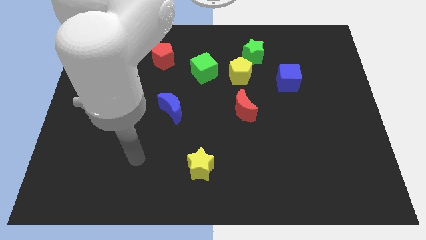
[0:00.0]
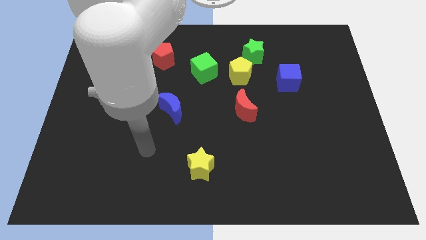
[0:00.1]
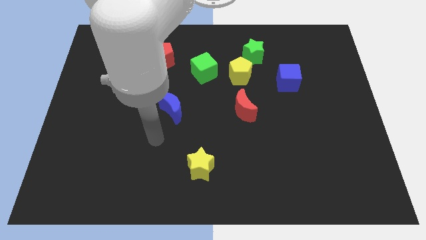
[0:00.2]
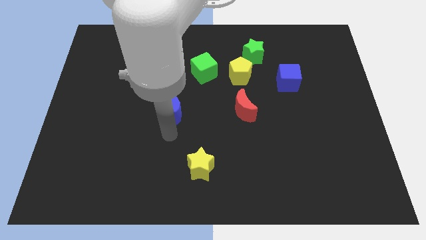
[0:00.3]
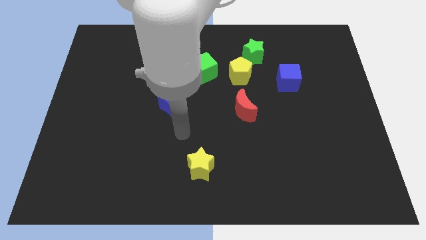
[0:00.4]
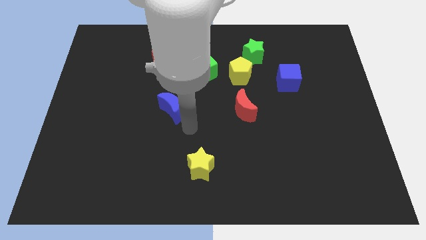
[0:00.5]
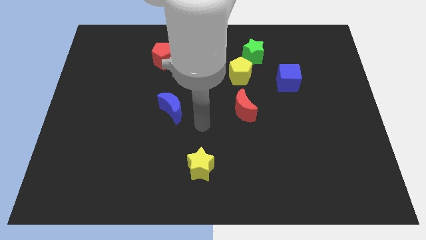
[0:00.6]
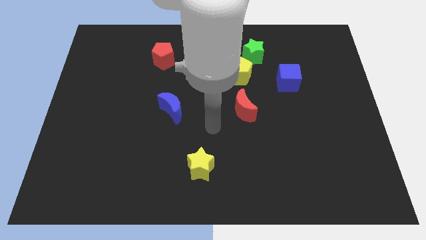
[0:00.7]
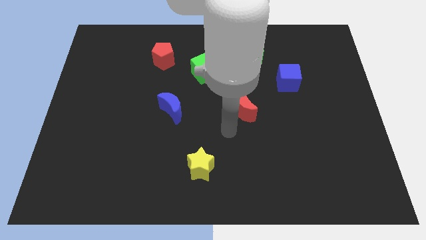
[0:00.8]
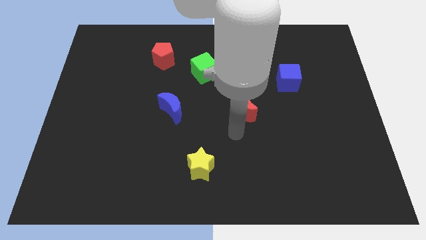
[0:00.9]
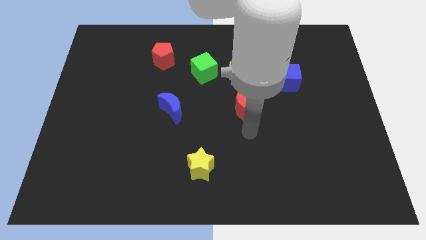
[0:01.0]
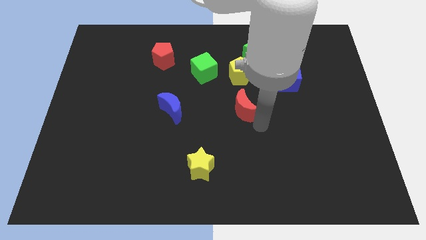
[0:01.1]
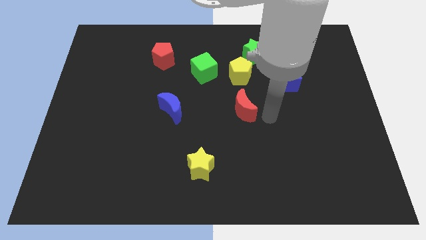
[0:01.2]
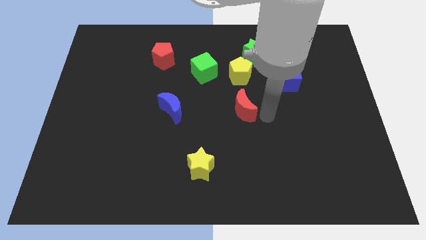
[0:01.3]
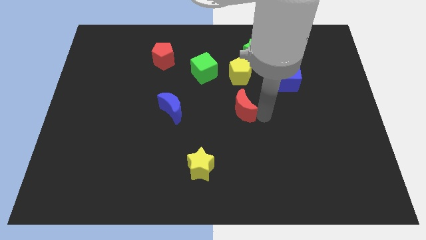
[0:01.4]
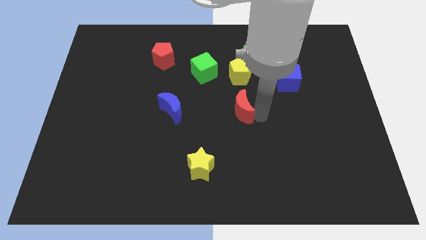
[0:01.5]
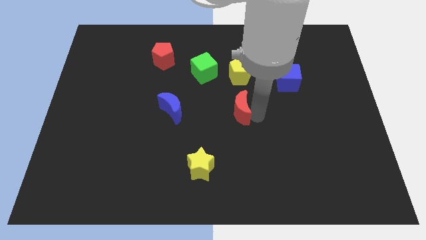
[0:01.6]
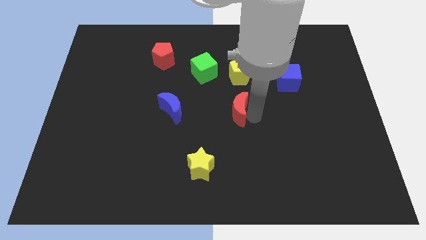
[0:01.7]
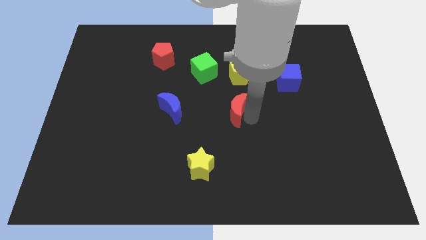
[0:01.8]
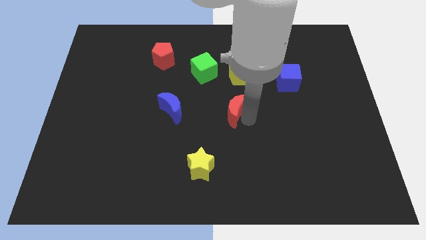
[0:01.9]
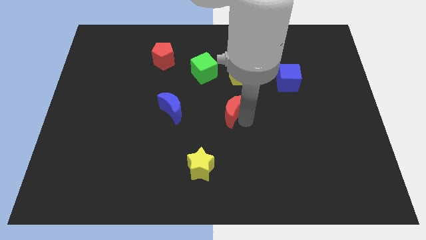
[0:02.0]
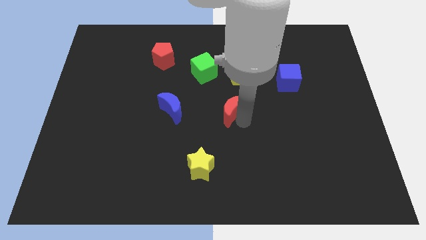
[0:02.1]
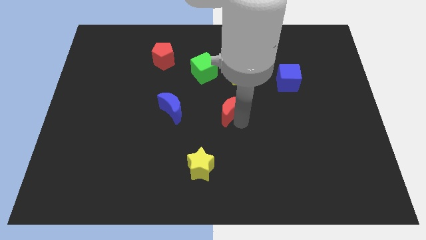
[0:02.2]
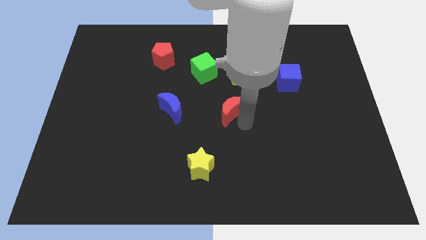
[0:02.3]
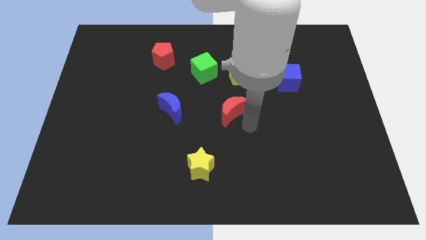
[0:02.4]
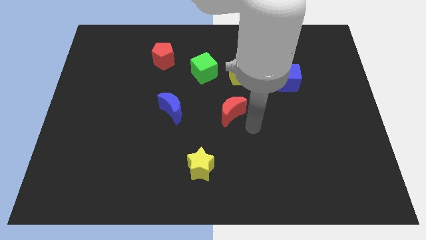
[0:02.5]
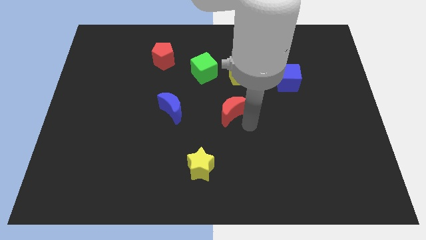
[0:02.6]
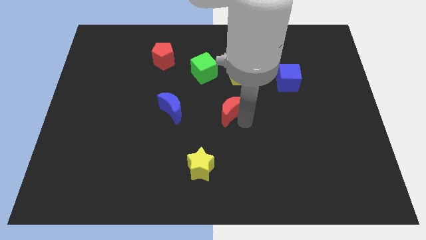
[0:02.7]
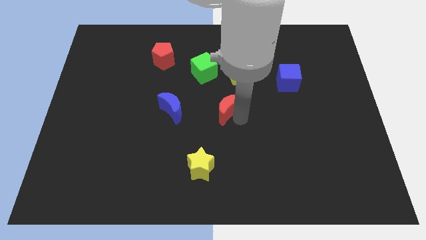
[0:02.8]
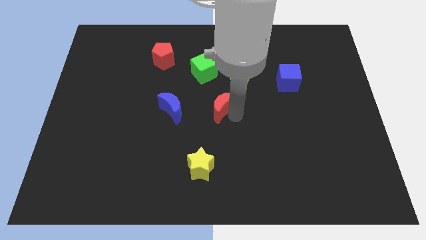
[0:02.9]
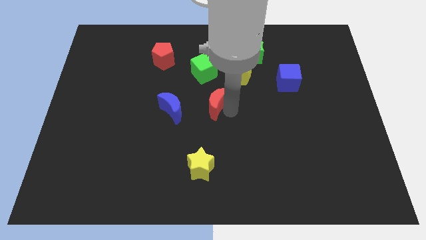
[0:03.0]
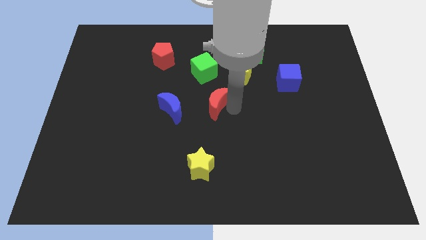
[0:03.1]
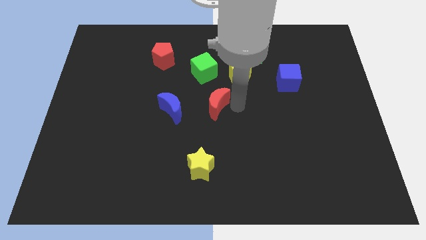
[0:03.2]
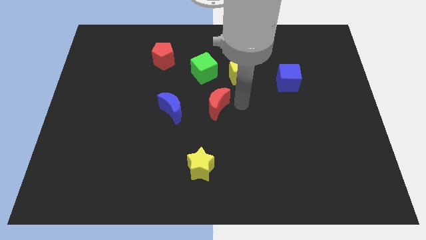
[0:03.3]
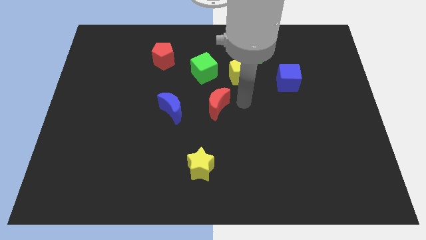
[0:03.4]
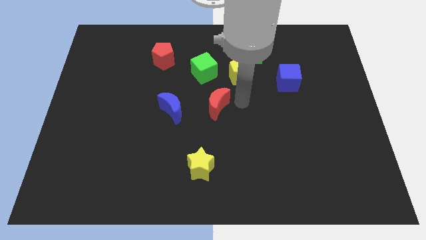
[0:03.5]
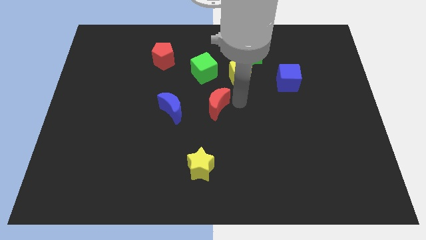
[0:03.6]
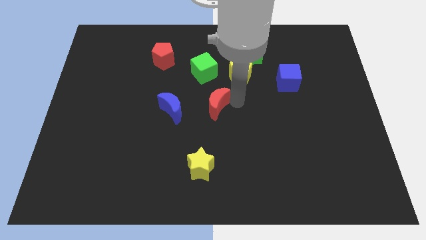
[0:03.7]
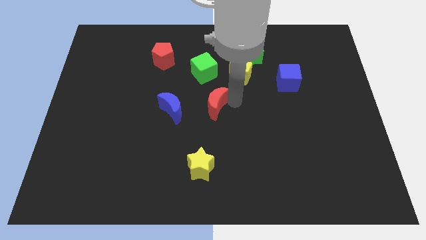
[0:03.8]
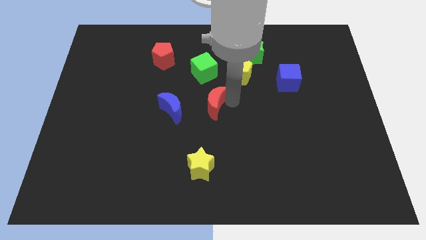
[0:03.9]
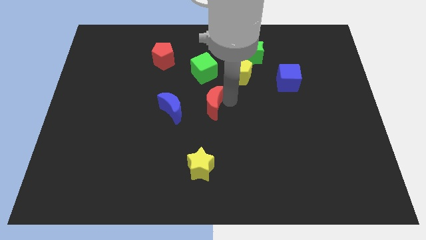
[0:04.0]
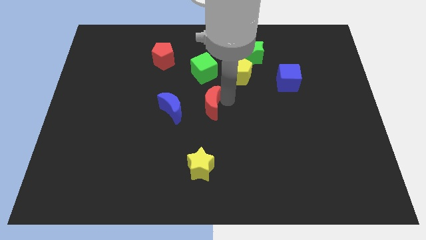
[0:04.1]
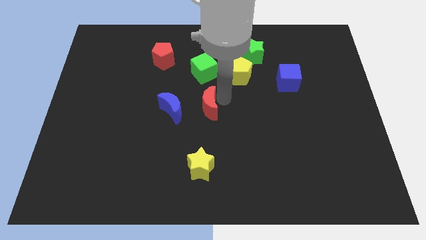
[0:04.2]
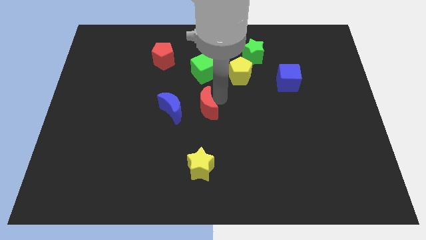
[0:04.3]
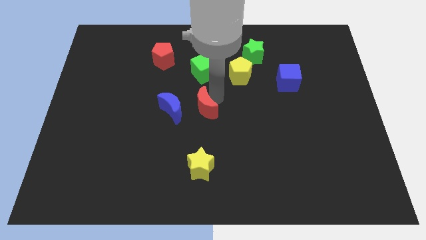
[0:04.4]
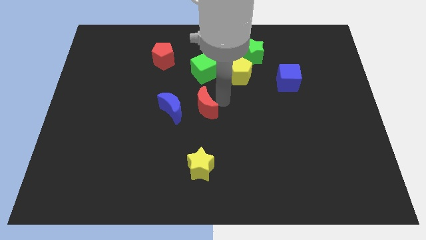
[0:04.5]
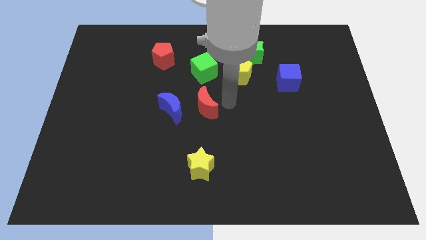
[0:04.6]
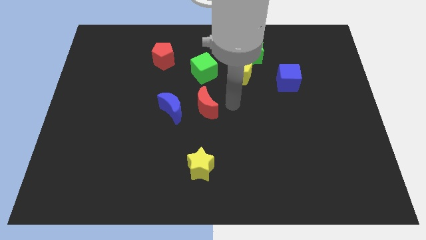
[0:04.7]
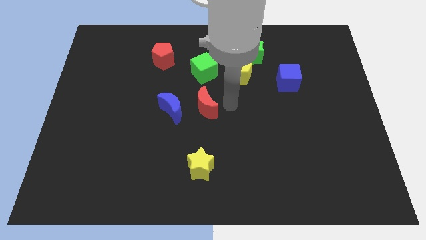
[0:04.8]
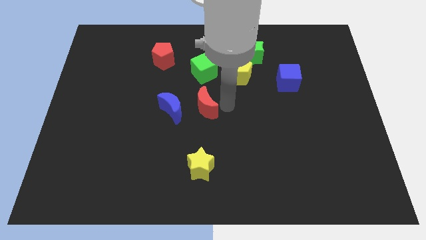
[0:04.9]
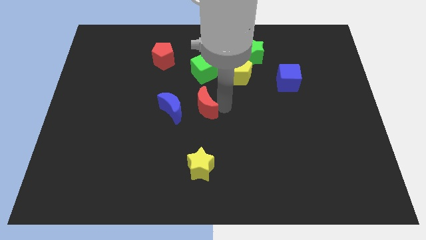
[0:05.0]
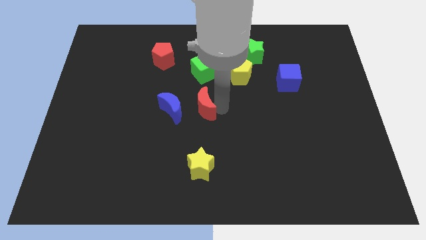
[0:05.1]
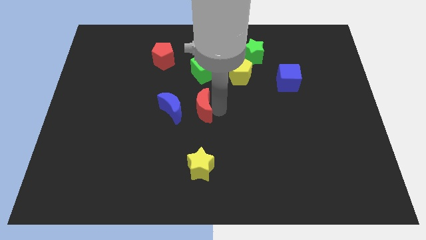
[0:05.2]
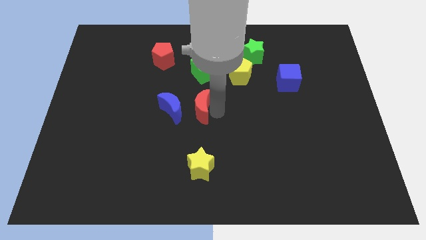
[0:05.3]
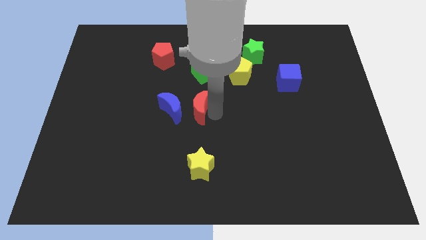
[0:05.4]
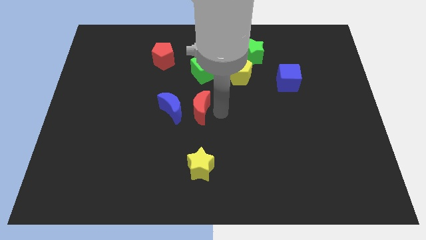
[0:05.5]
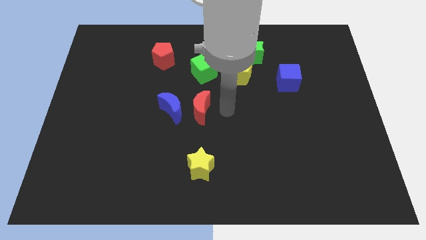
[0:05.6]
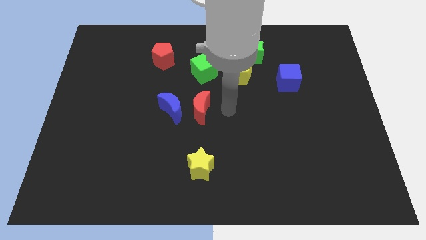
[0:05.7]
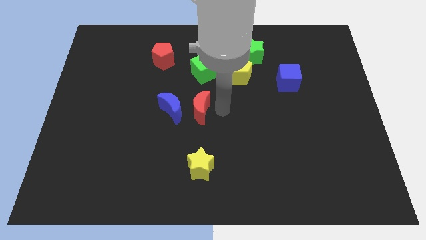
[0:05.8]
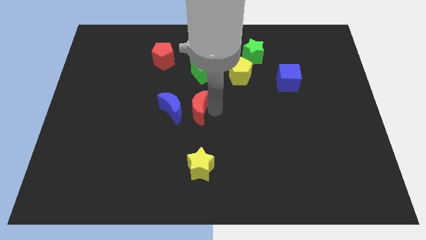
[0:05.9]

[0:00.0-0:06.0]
push the red moon next to the blue moon

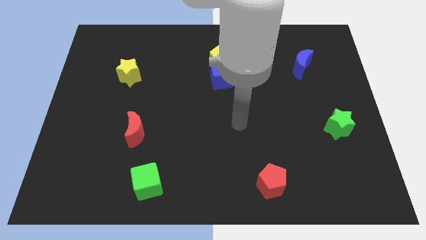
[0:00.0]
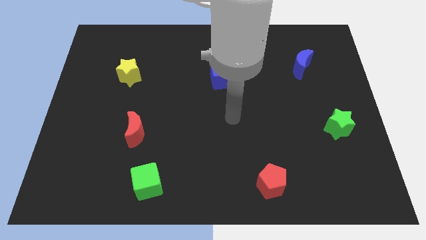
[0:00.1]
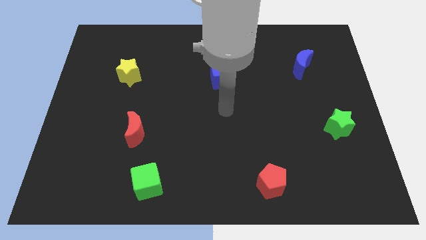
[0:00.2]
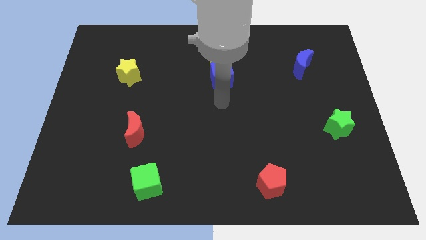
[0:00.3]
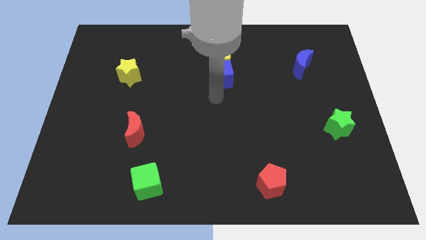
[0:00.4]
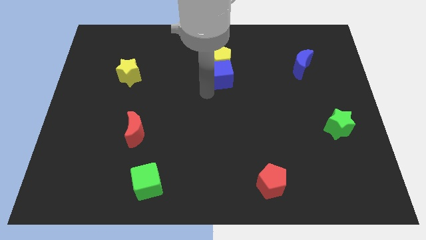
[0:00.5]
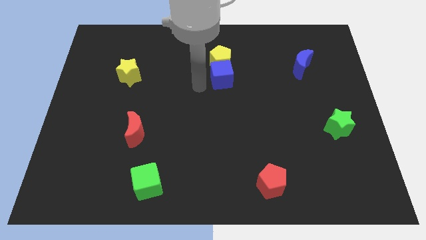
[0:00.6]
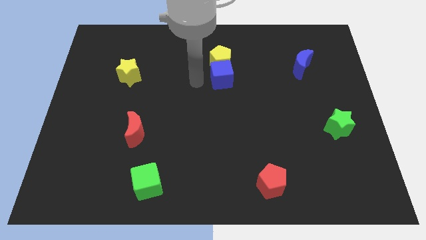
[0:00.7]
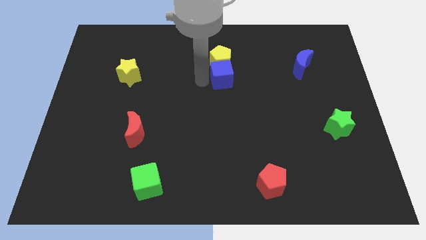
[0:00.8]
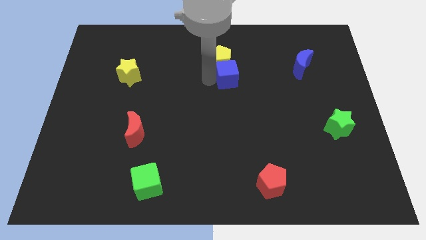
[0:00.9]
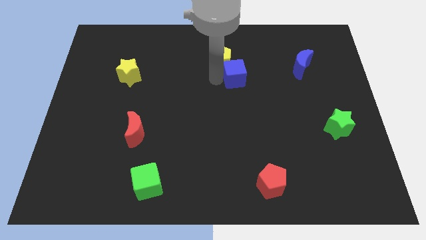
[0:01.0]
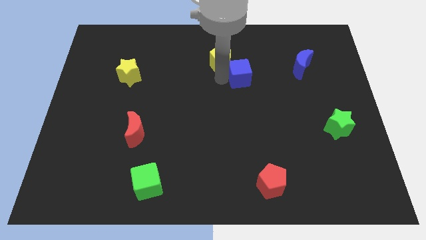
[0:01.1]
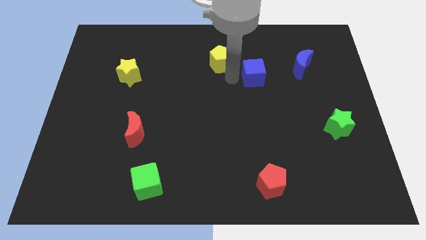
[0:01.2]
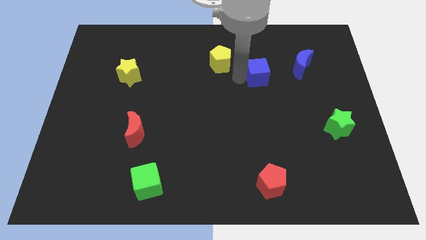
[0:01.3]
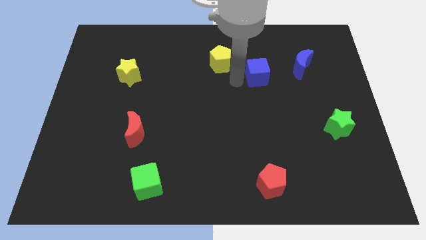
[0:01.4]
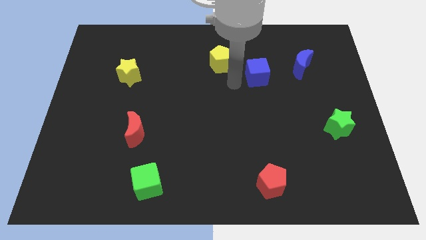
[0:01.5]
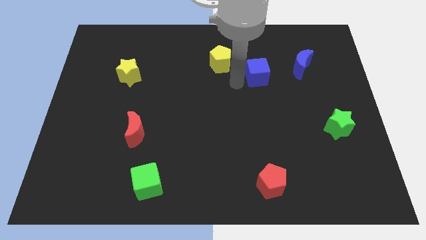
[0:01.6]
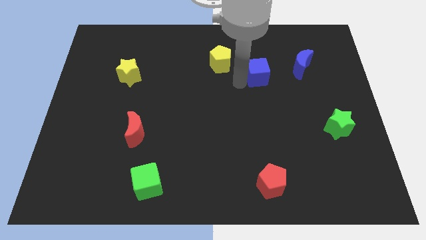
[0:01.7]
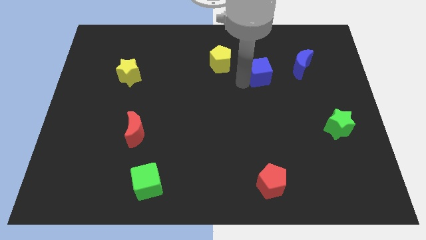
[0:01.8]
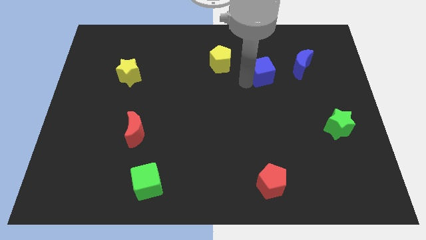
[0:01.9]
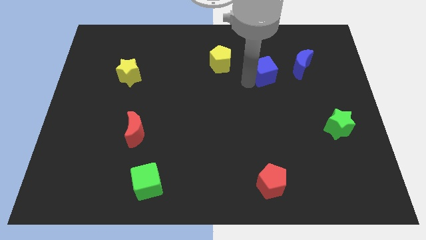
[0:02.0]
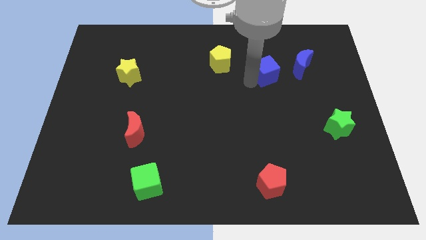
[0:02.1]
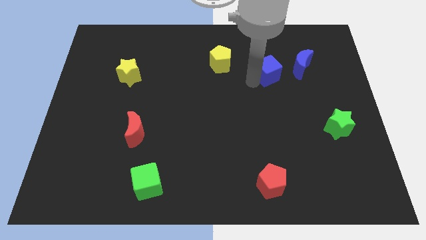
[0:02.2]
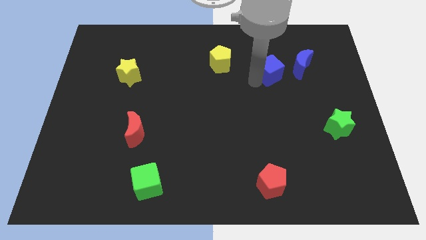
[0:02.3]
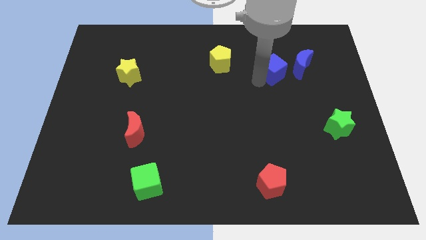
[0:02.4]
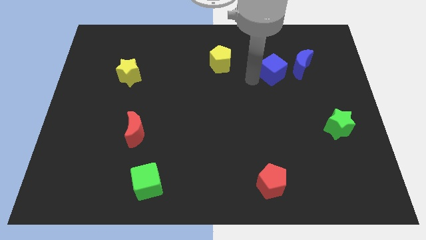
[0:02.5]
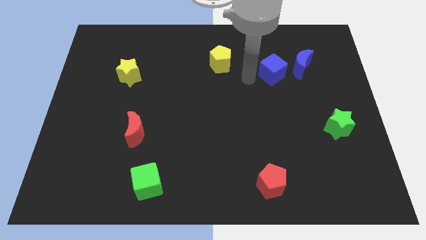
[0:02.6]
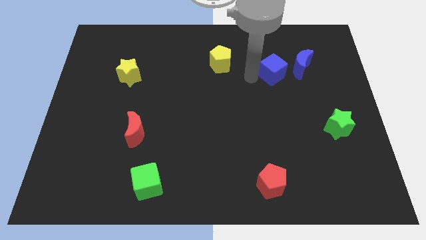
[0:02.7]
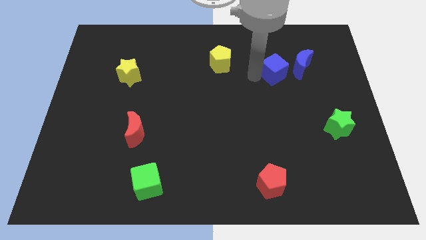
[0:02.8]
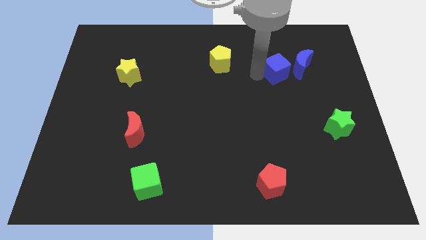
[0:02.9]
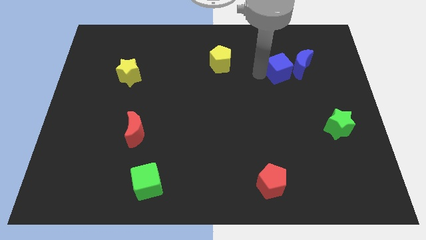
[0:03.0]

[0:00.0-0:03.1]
push the blue cube close to the blue moon
